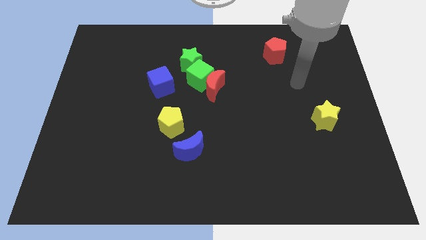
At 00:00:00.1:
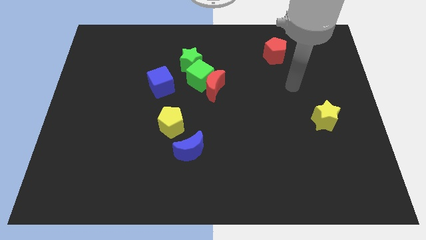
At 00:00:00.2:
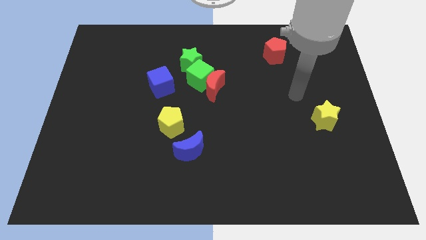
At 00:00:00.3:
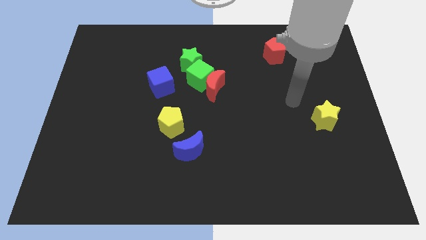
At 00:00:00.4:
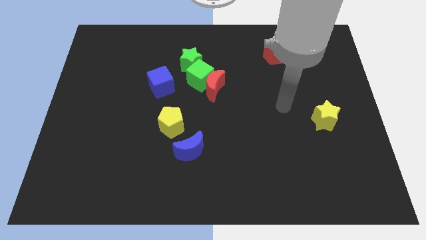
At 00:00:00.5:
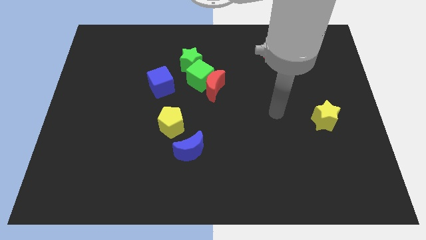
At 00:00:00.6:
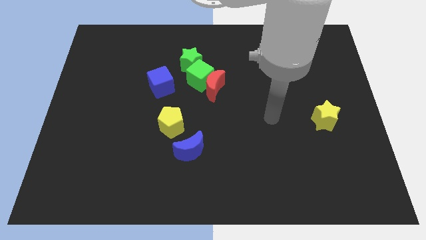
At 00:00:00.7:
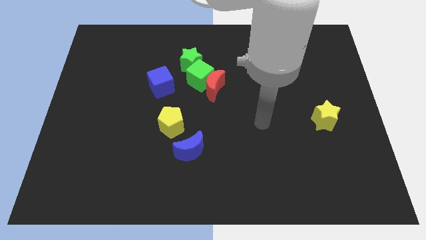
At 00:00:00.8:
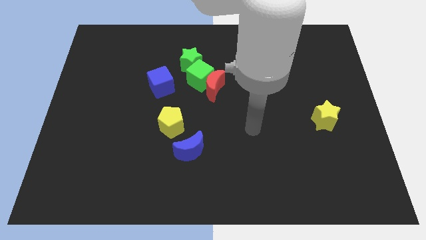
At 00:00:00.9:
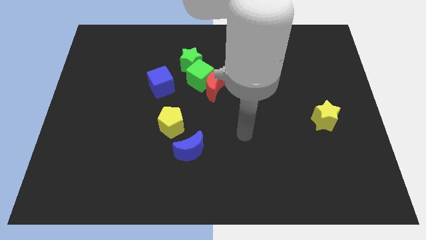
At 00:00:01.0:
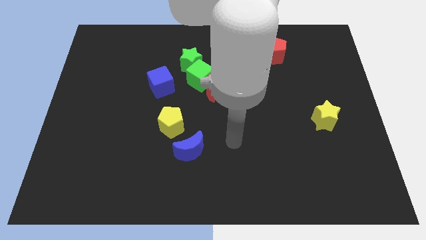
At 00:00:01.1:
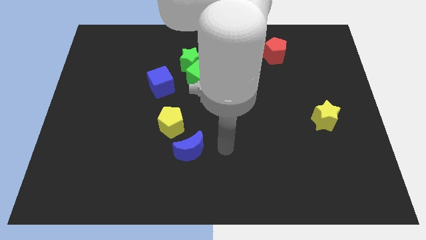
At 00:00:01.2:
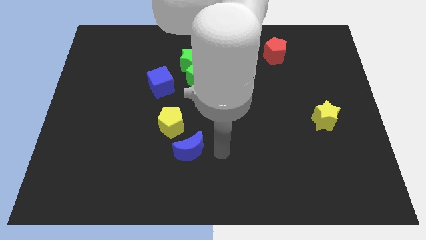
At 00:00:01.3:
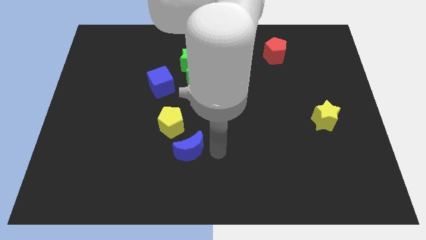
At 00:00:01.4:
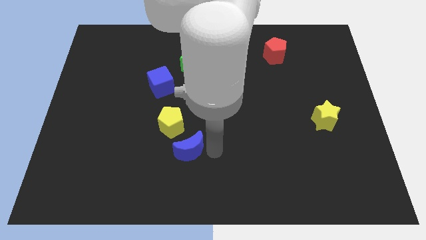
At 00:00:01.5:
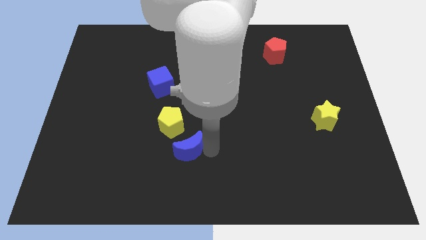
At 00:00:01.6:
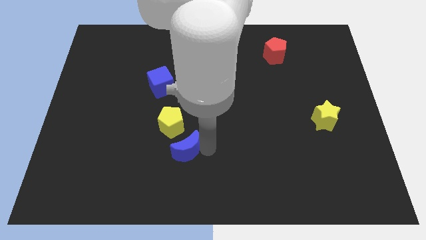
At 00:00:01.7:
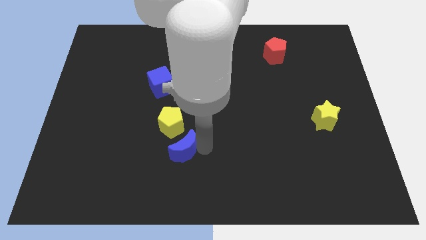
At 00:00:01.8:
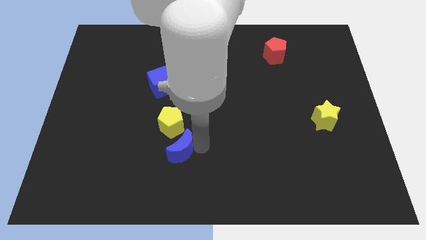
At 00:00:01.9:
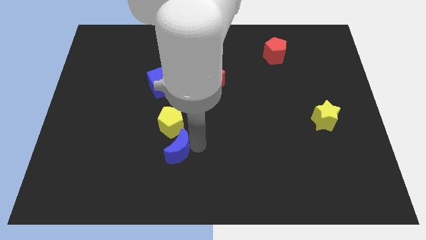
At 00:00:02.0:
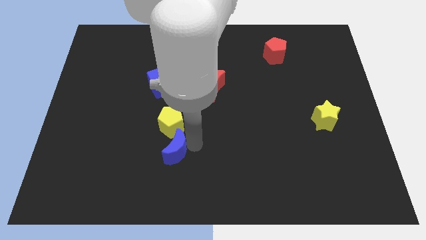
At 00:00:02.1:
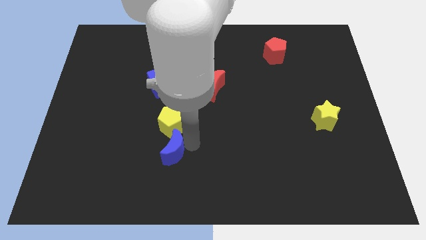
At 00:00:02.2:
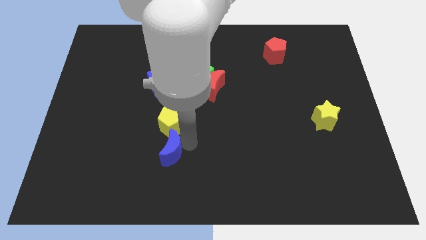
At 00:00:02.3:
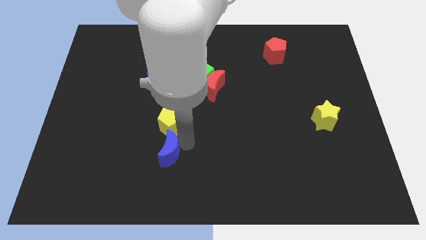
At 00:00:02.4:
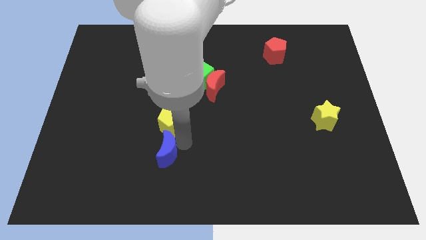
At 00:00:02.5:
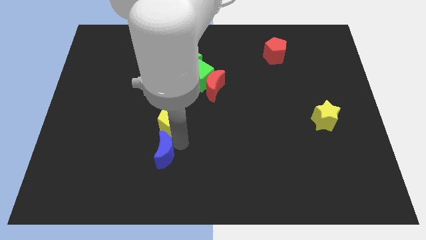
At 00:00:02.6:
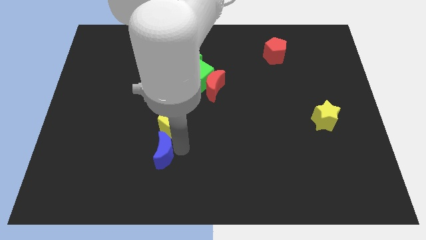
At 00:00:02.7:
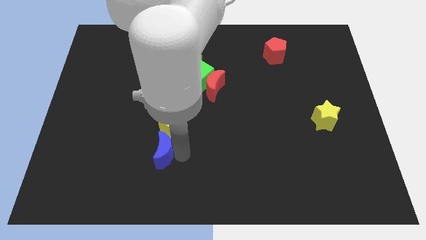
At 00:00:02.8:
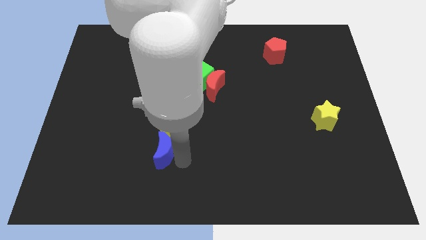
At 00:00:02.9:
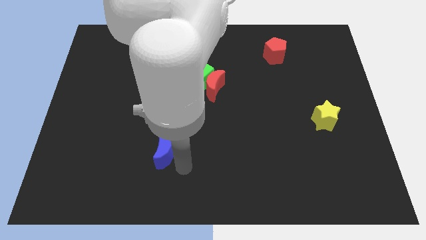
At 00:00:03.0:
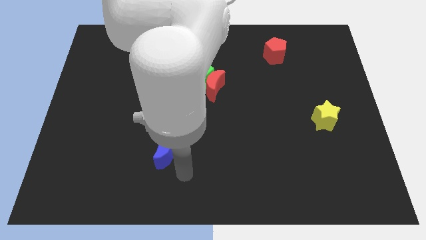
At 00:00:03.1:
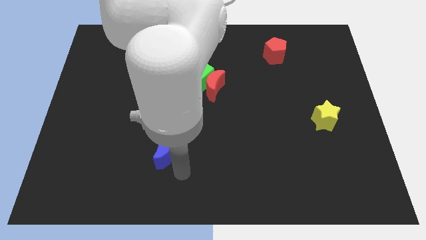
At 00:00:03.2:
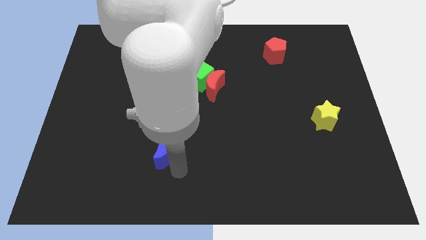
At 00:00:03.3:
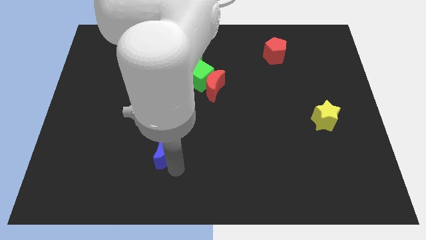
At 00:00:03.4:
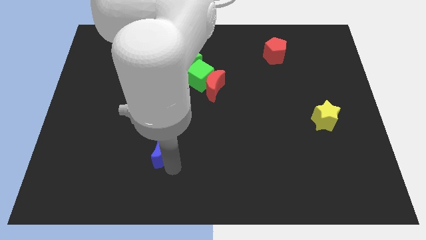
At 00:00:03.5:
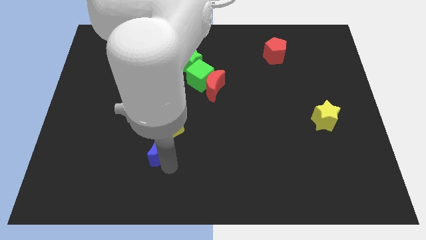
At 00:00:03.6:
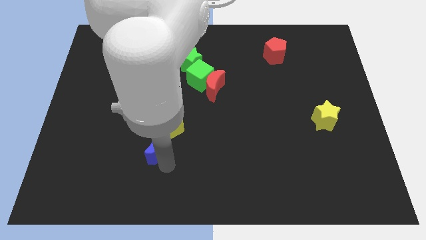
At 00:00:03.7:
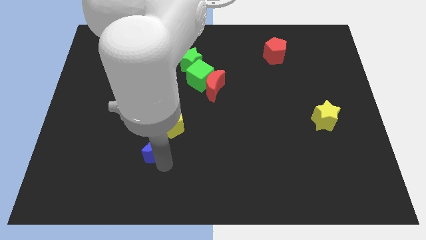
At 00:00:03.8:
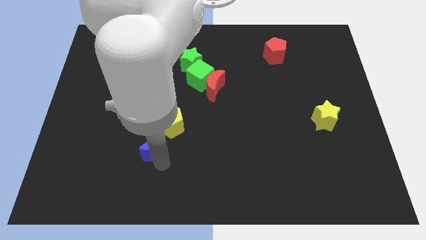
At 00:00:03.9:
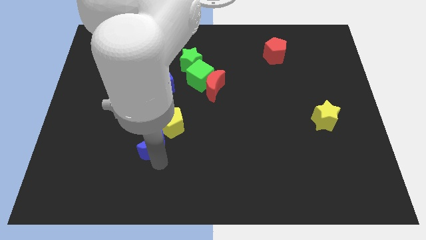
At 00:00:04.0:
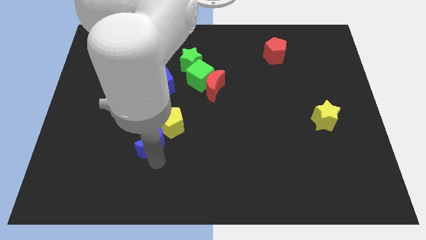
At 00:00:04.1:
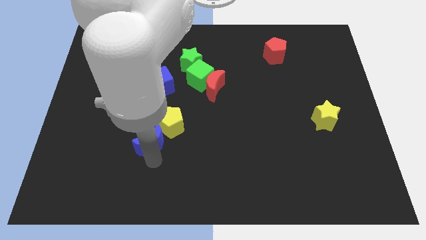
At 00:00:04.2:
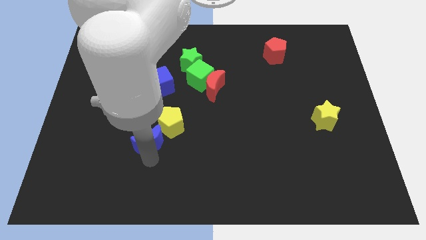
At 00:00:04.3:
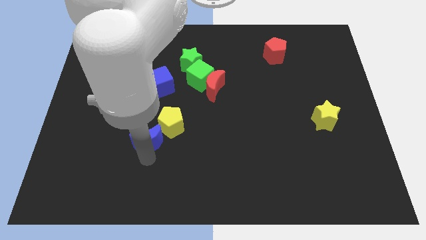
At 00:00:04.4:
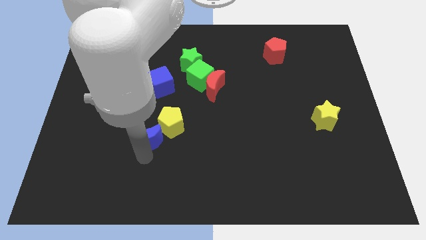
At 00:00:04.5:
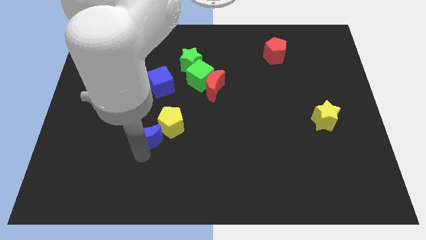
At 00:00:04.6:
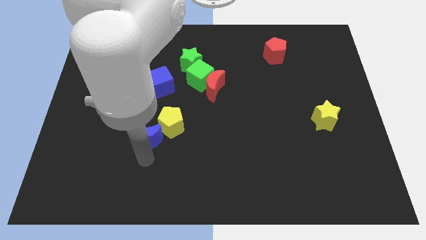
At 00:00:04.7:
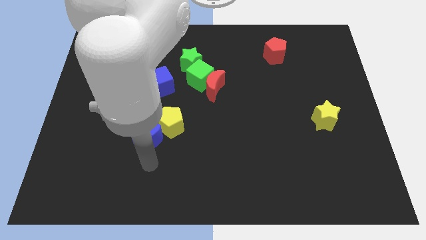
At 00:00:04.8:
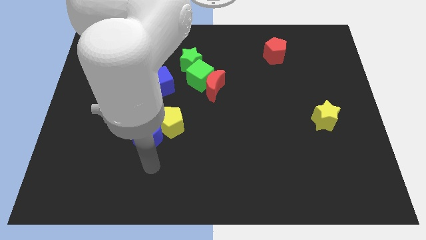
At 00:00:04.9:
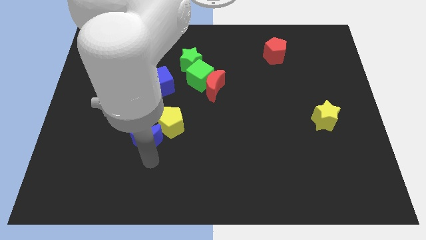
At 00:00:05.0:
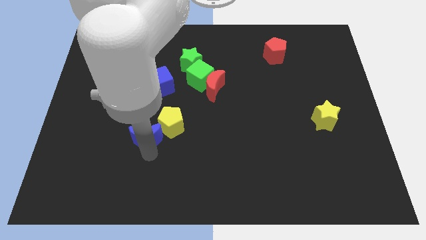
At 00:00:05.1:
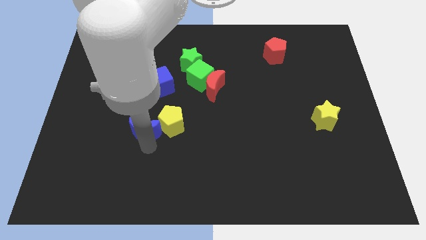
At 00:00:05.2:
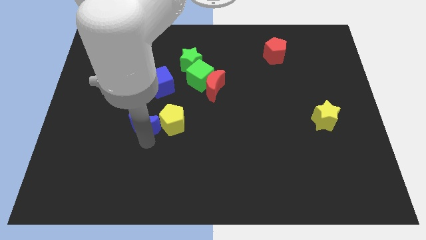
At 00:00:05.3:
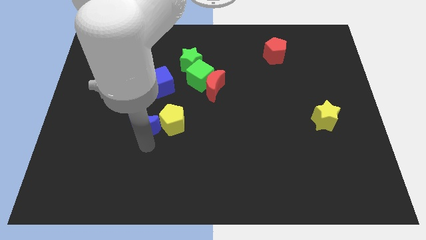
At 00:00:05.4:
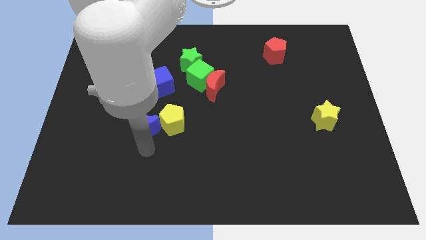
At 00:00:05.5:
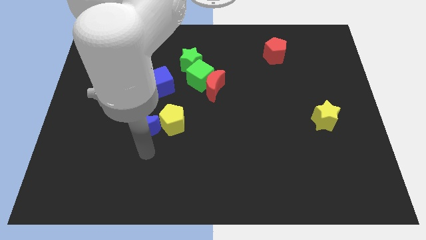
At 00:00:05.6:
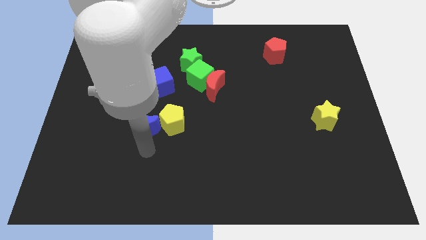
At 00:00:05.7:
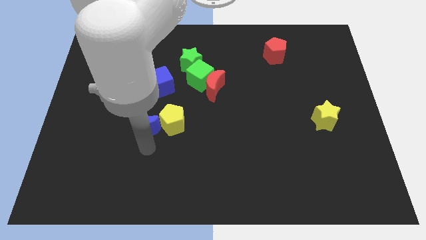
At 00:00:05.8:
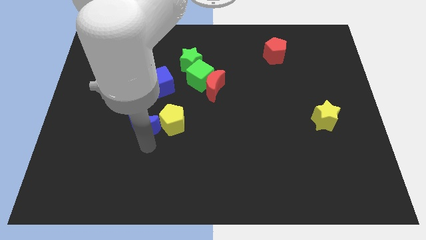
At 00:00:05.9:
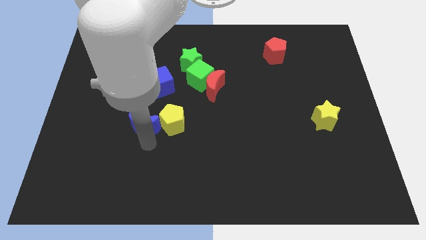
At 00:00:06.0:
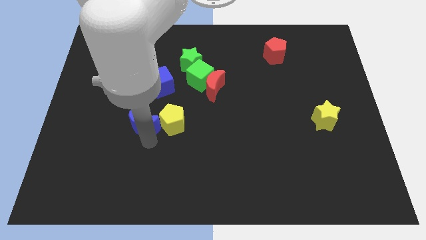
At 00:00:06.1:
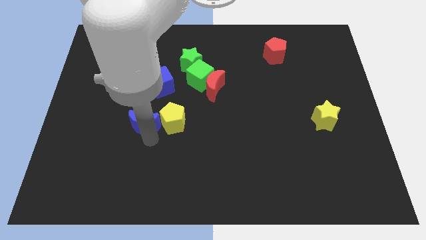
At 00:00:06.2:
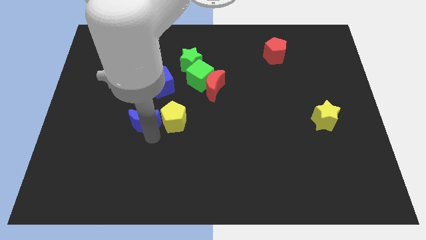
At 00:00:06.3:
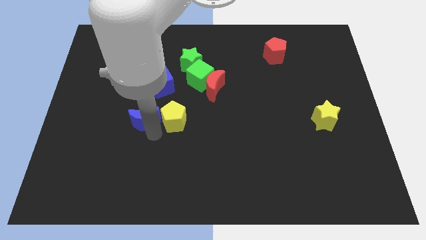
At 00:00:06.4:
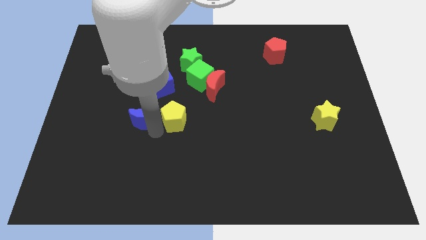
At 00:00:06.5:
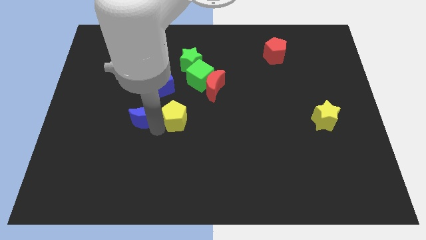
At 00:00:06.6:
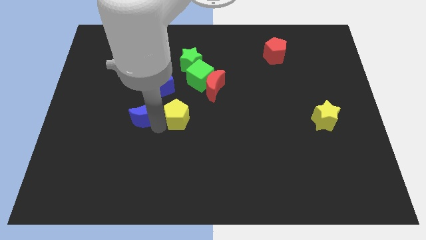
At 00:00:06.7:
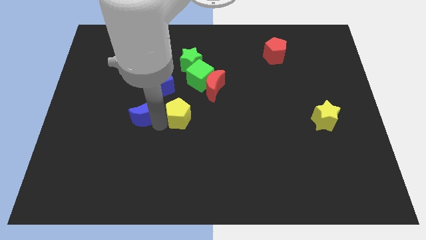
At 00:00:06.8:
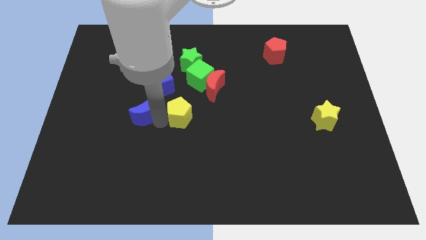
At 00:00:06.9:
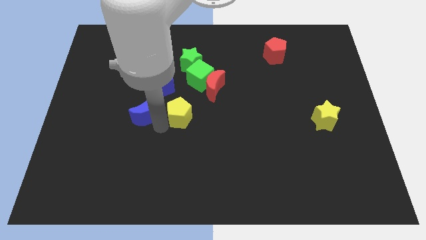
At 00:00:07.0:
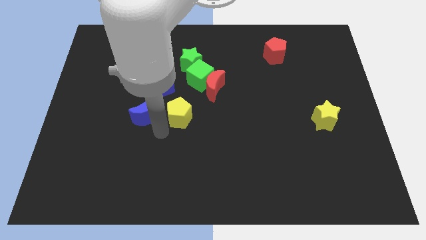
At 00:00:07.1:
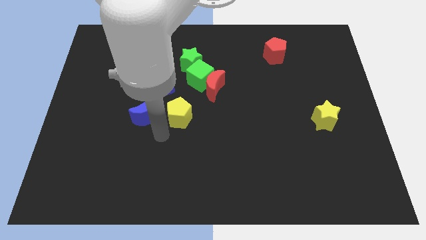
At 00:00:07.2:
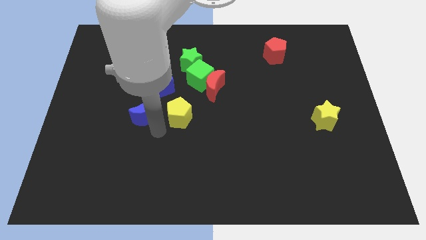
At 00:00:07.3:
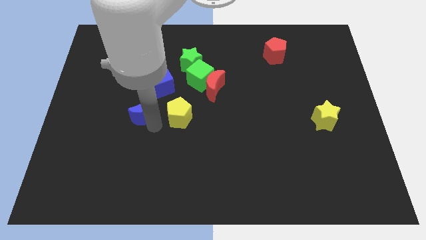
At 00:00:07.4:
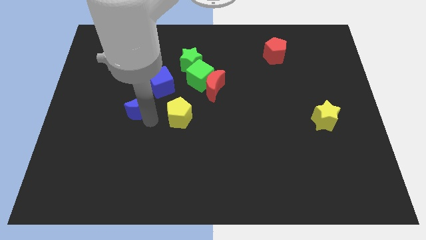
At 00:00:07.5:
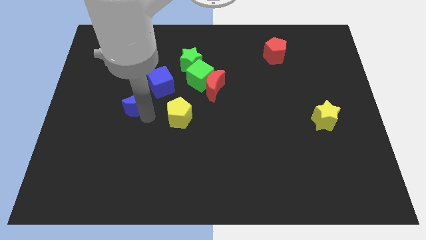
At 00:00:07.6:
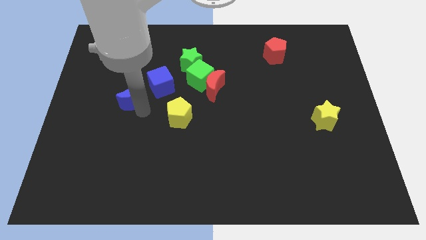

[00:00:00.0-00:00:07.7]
push the blue moon diagonally up and to the left

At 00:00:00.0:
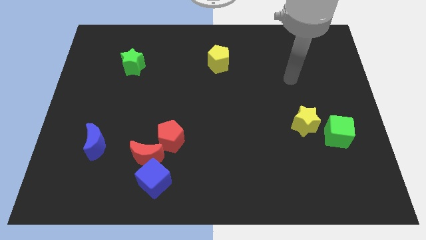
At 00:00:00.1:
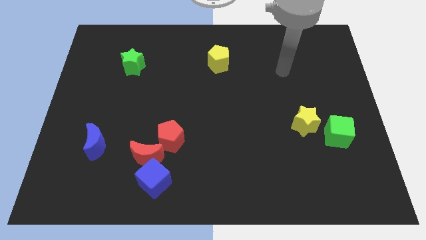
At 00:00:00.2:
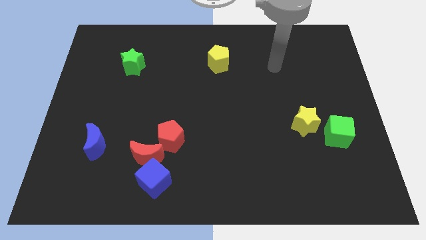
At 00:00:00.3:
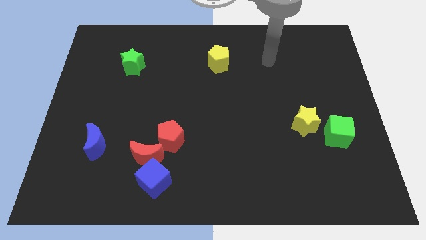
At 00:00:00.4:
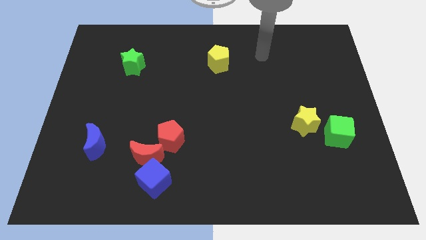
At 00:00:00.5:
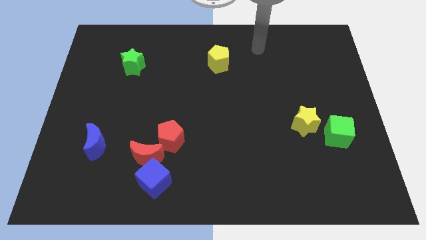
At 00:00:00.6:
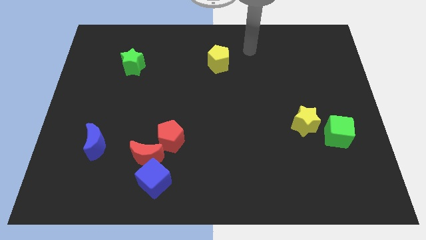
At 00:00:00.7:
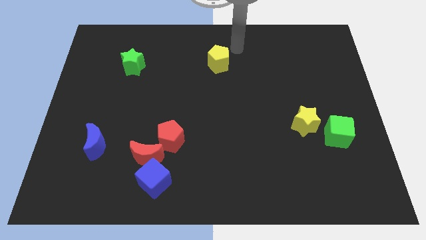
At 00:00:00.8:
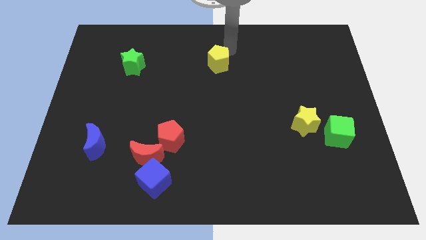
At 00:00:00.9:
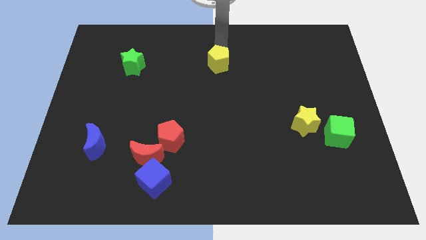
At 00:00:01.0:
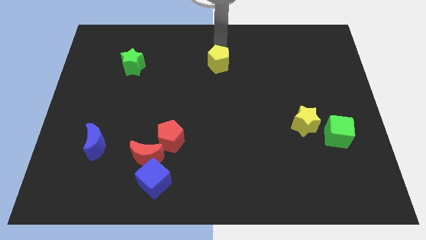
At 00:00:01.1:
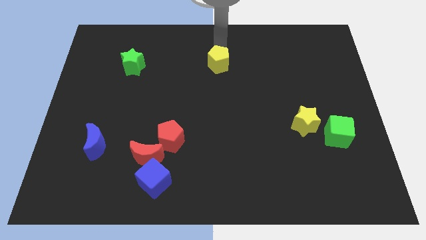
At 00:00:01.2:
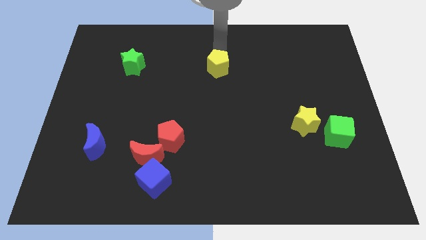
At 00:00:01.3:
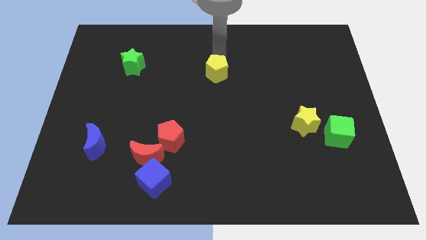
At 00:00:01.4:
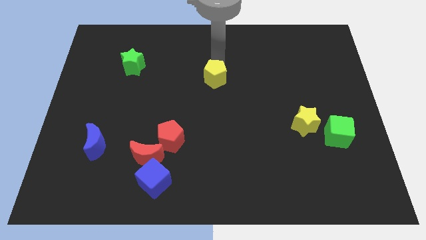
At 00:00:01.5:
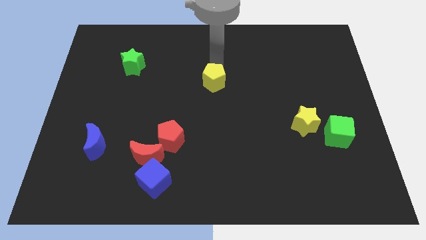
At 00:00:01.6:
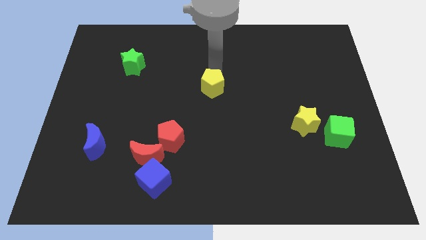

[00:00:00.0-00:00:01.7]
push the yellow pentagon a little bit down
